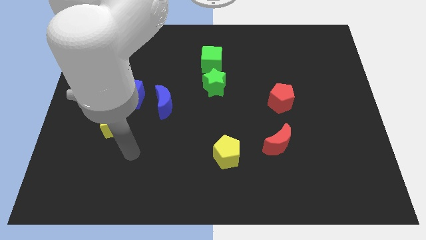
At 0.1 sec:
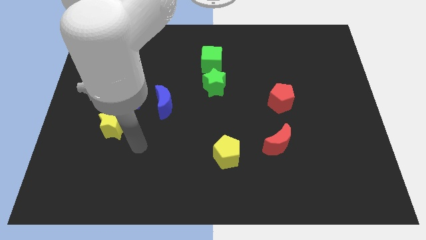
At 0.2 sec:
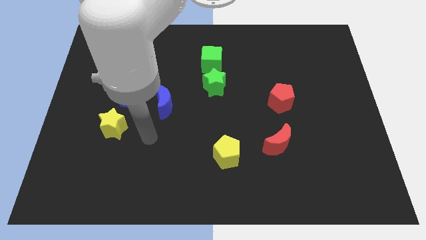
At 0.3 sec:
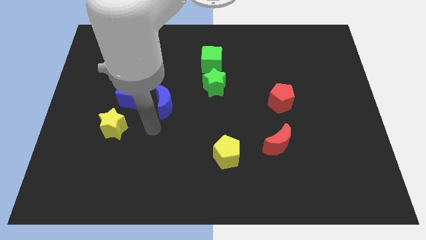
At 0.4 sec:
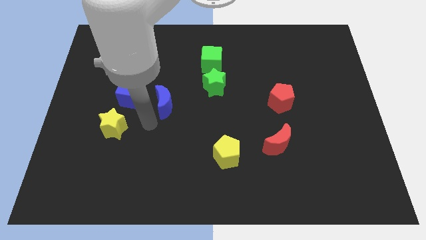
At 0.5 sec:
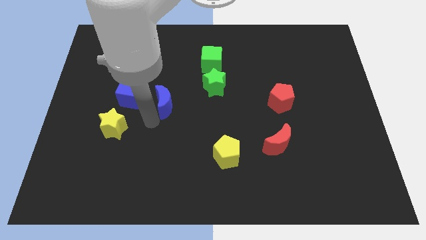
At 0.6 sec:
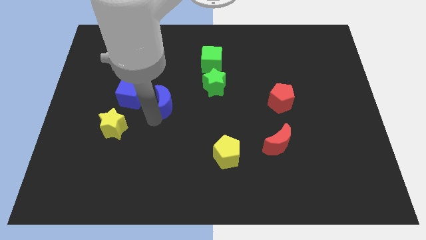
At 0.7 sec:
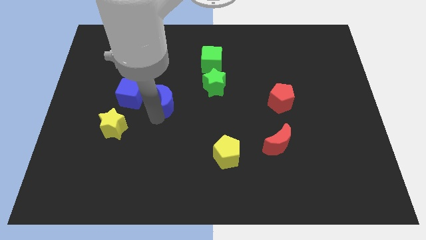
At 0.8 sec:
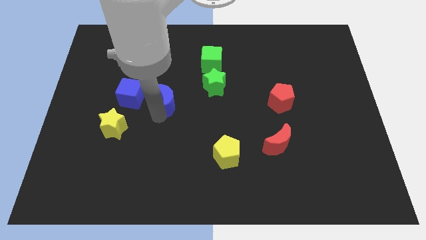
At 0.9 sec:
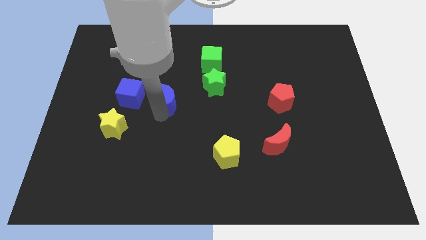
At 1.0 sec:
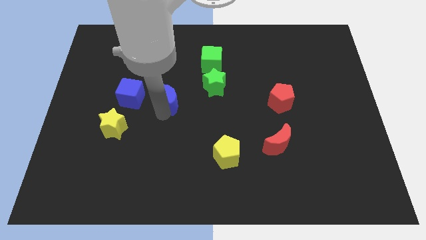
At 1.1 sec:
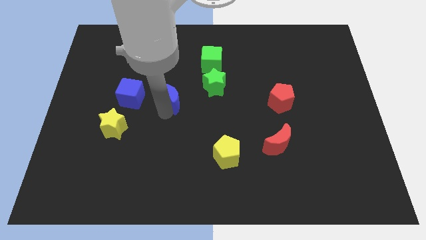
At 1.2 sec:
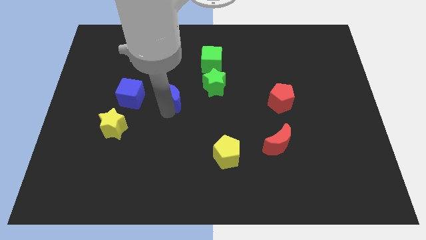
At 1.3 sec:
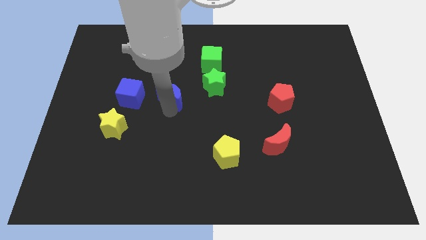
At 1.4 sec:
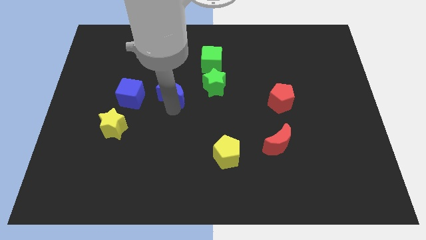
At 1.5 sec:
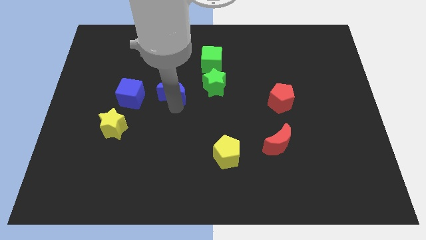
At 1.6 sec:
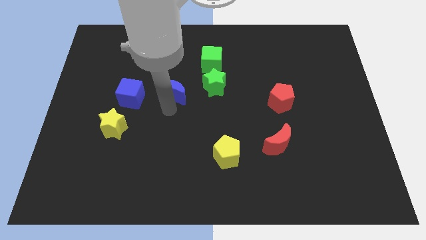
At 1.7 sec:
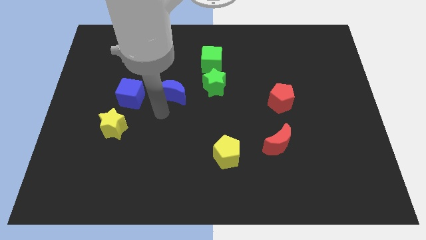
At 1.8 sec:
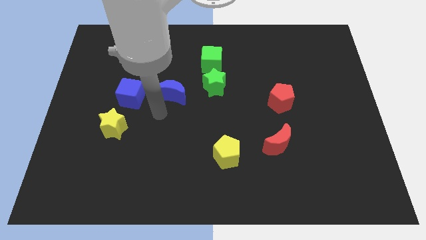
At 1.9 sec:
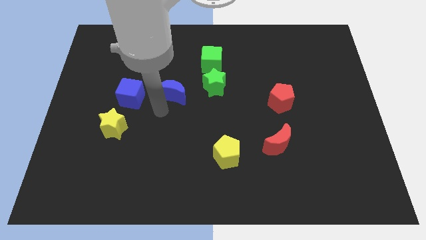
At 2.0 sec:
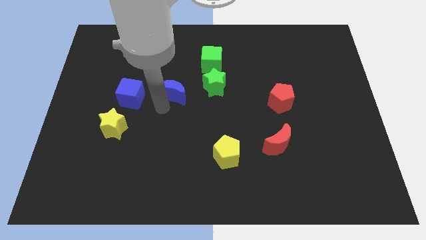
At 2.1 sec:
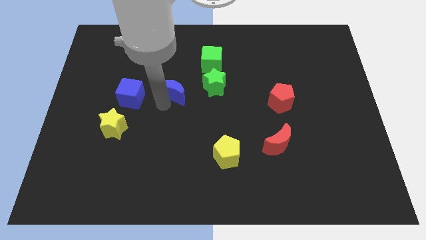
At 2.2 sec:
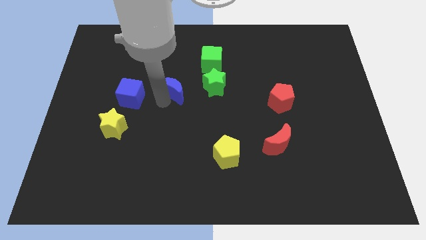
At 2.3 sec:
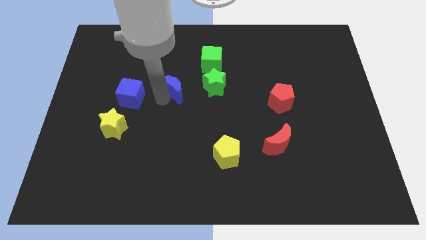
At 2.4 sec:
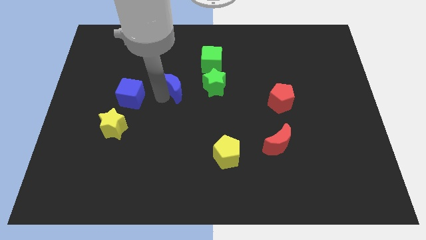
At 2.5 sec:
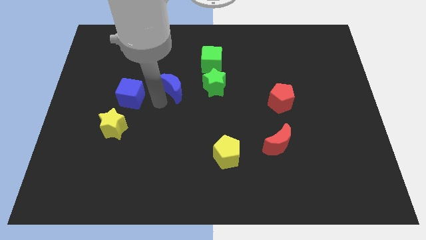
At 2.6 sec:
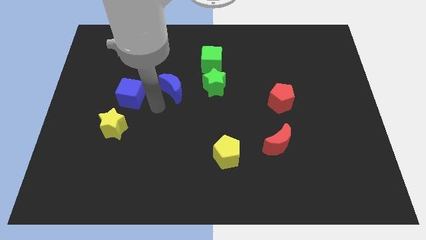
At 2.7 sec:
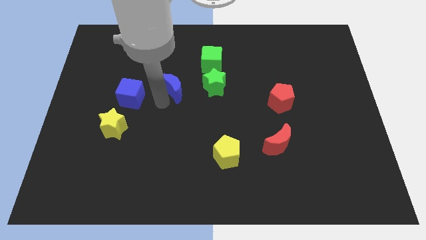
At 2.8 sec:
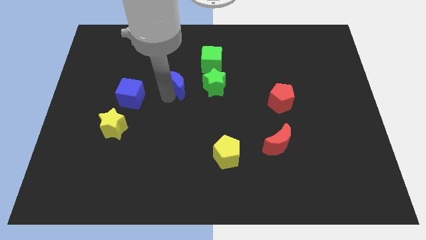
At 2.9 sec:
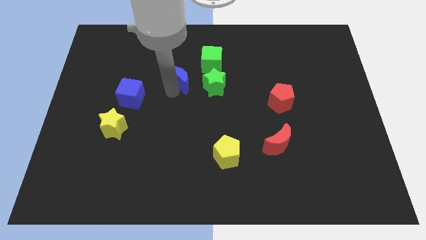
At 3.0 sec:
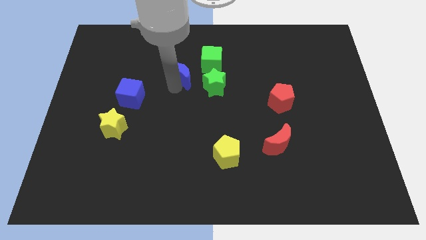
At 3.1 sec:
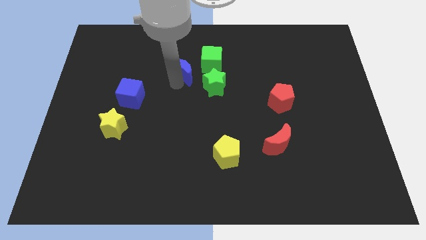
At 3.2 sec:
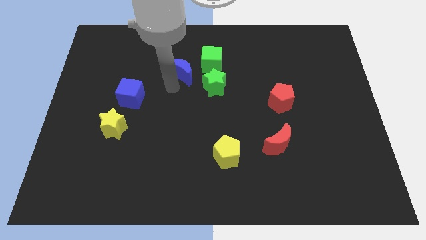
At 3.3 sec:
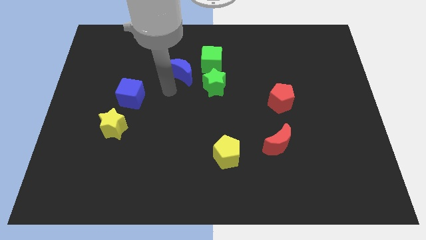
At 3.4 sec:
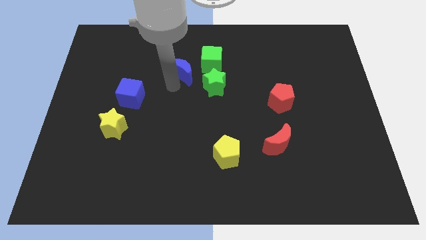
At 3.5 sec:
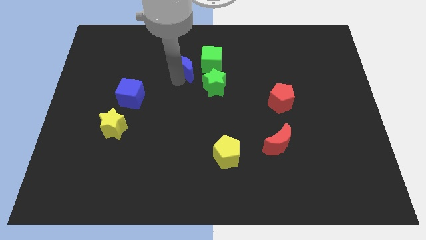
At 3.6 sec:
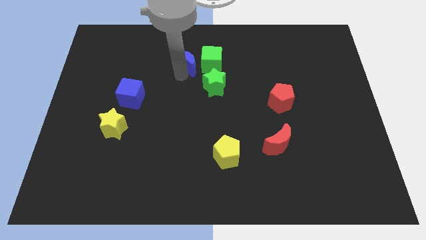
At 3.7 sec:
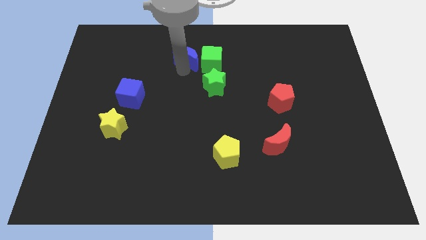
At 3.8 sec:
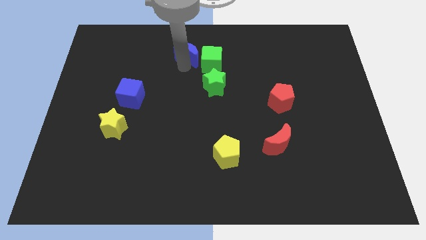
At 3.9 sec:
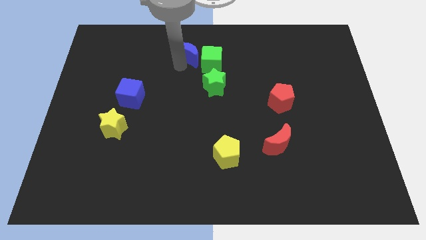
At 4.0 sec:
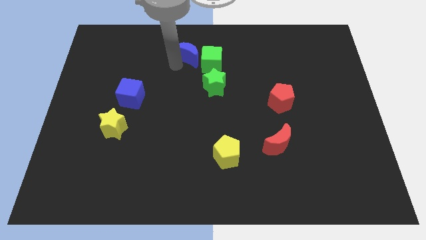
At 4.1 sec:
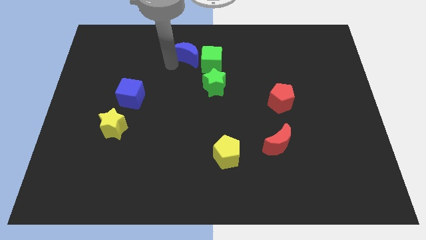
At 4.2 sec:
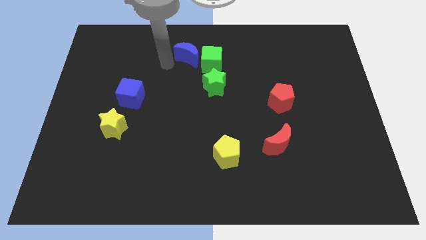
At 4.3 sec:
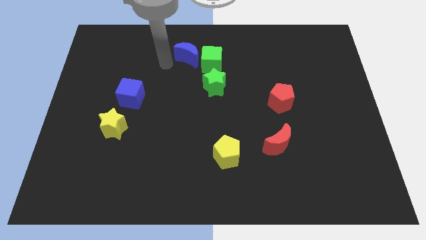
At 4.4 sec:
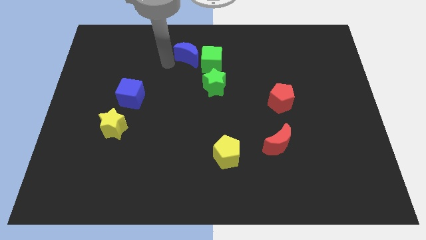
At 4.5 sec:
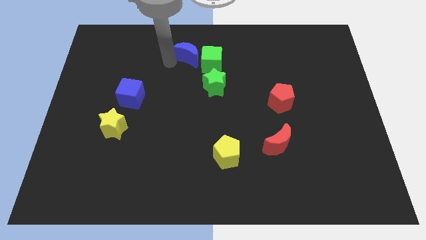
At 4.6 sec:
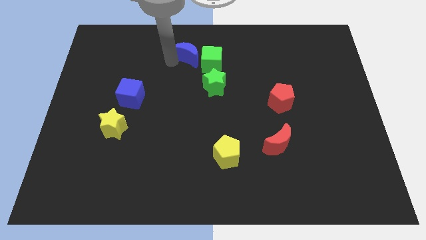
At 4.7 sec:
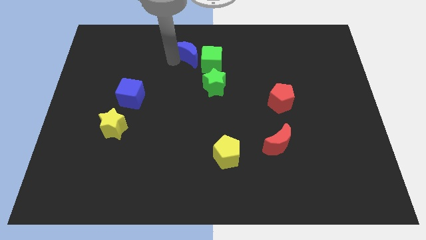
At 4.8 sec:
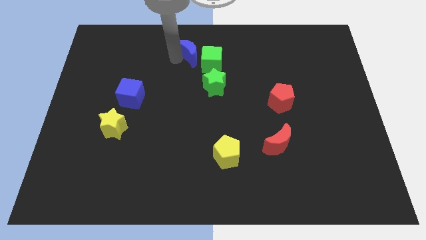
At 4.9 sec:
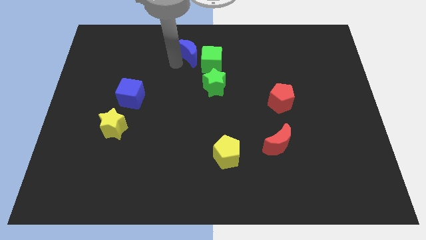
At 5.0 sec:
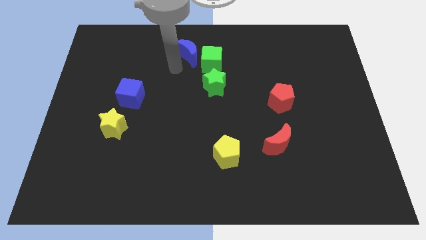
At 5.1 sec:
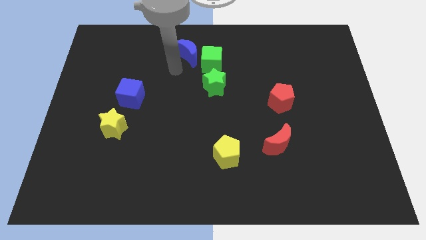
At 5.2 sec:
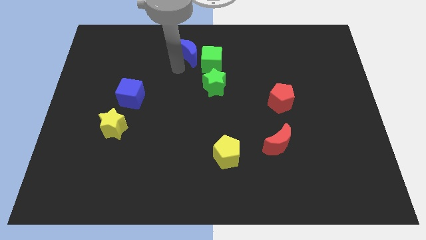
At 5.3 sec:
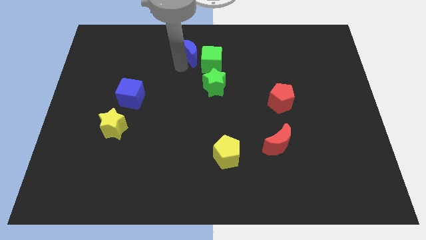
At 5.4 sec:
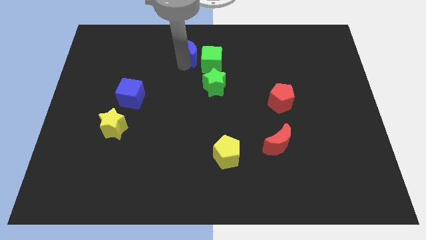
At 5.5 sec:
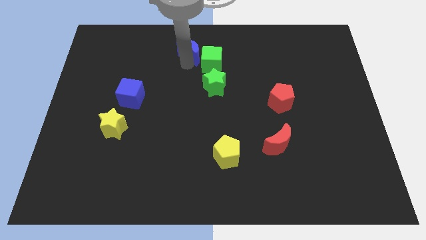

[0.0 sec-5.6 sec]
push the blue moon to the top side

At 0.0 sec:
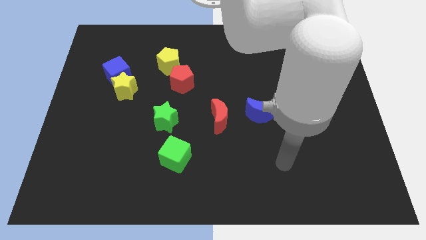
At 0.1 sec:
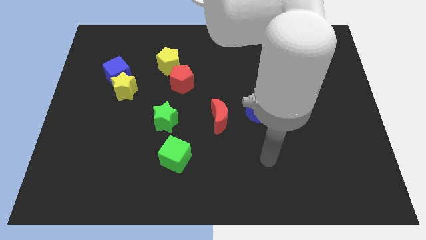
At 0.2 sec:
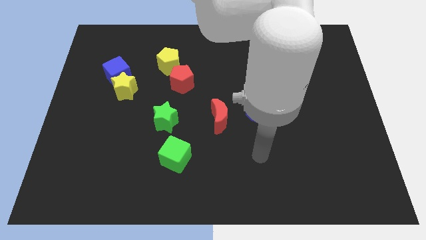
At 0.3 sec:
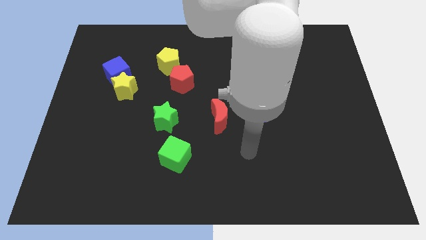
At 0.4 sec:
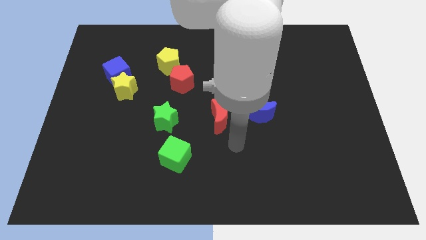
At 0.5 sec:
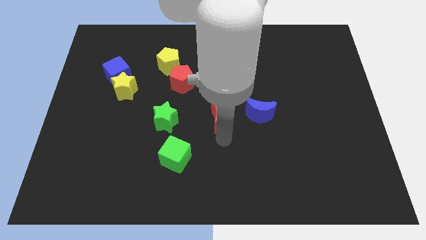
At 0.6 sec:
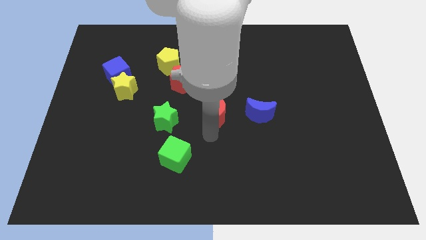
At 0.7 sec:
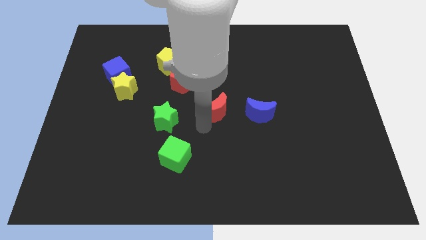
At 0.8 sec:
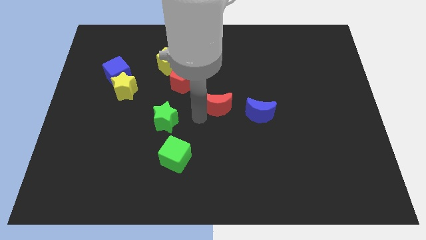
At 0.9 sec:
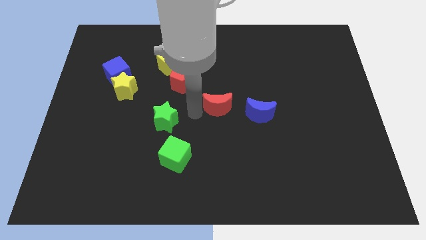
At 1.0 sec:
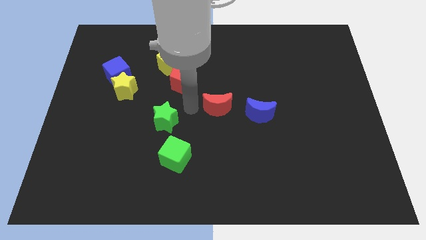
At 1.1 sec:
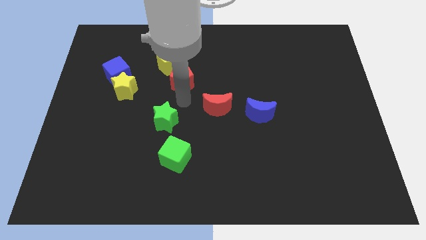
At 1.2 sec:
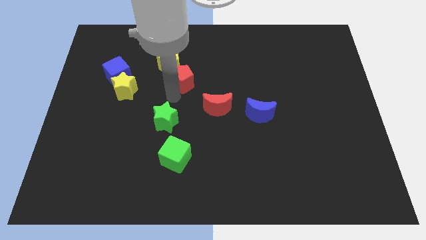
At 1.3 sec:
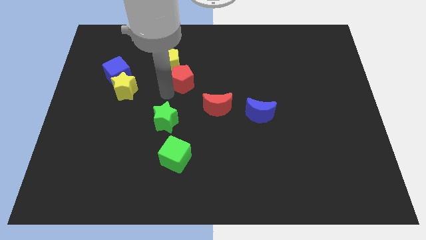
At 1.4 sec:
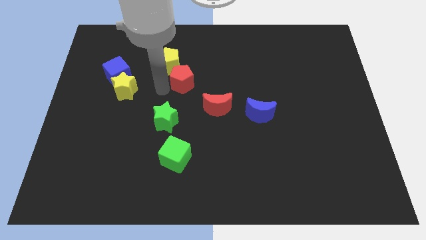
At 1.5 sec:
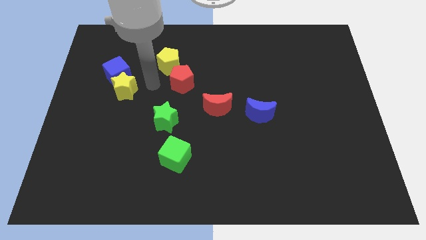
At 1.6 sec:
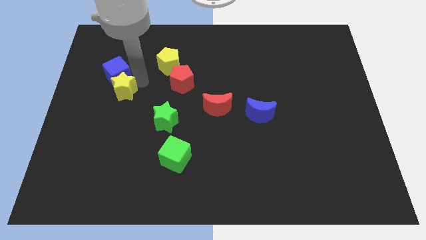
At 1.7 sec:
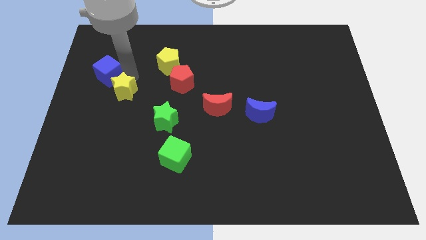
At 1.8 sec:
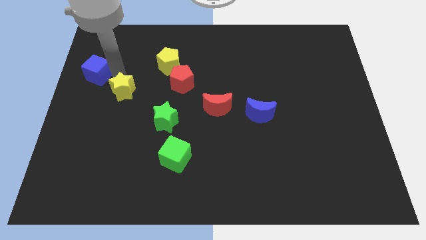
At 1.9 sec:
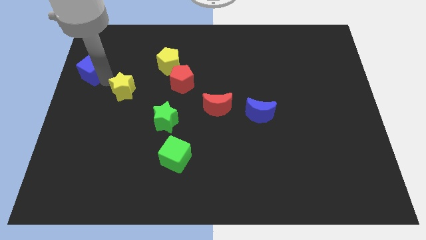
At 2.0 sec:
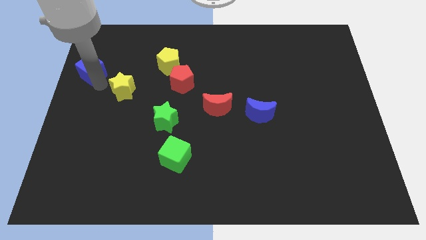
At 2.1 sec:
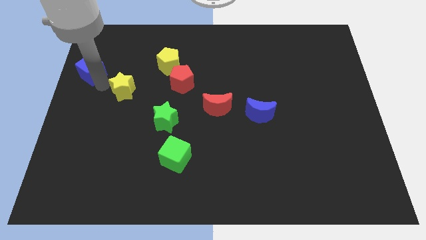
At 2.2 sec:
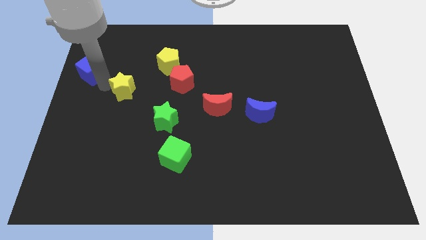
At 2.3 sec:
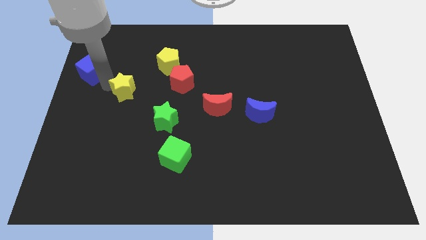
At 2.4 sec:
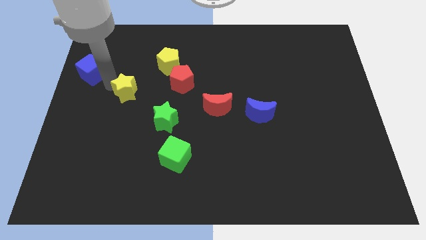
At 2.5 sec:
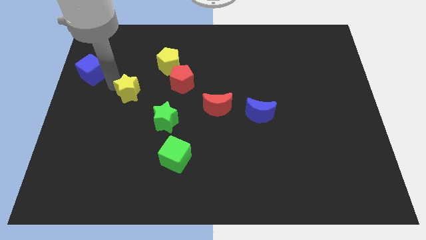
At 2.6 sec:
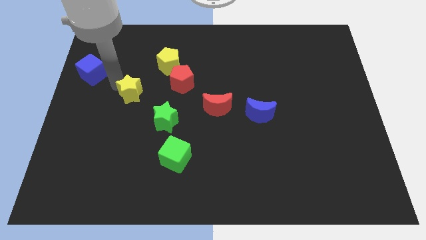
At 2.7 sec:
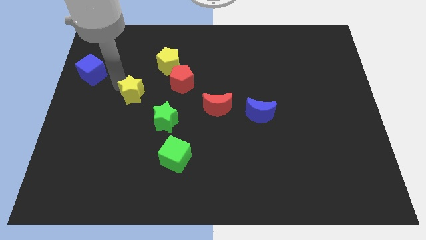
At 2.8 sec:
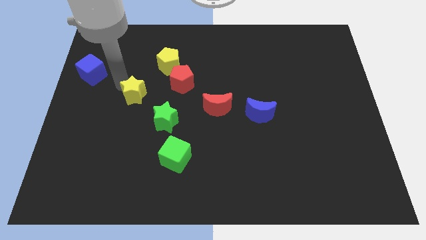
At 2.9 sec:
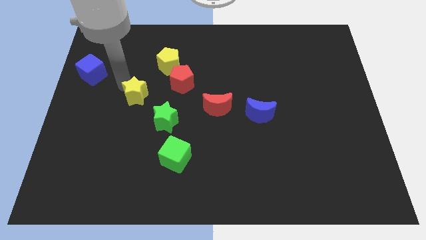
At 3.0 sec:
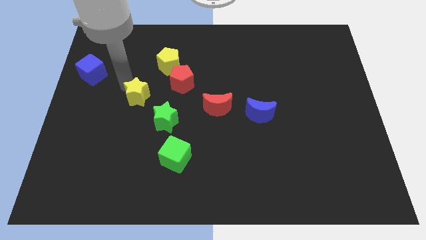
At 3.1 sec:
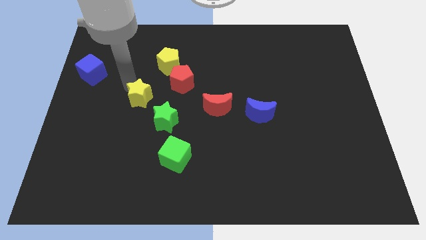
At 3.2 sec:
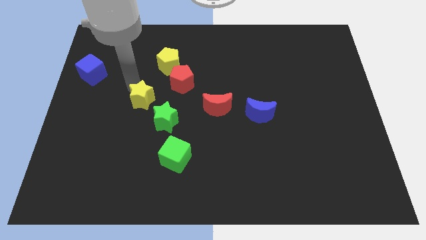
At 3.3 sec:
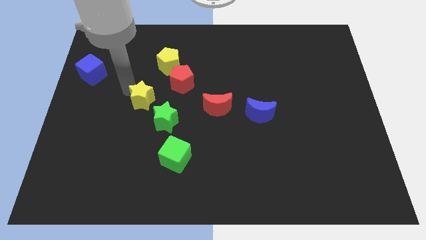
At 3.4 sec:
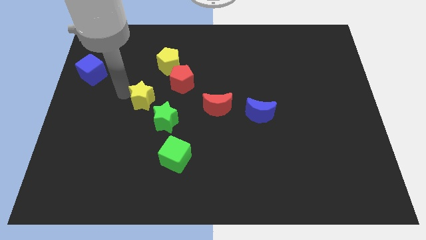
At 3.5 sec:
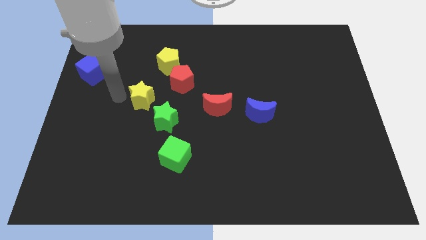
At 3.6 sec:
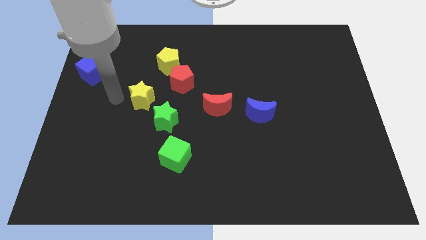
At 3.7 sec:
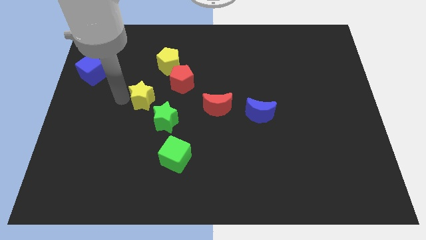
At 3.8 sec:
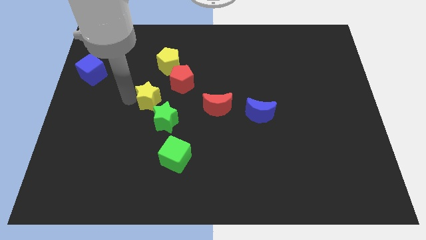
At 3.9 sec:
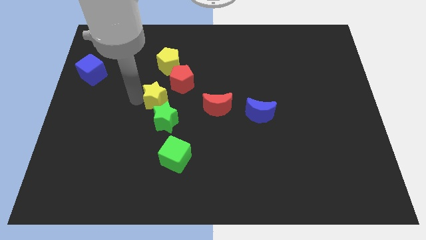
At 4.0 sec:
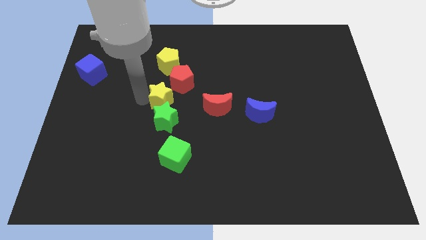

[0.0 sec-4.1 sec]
push the yellow star to the middle
